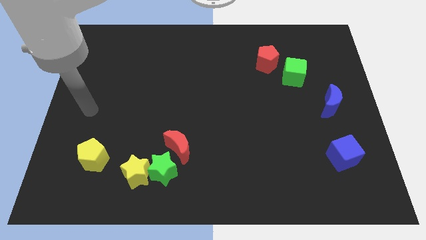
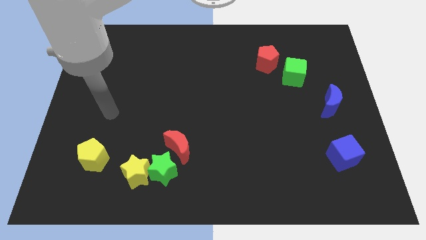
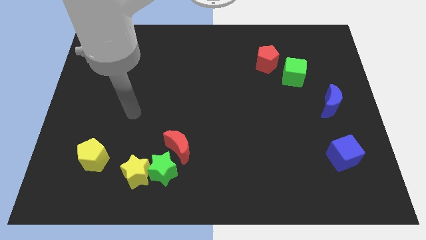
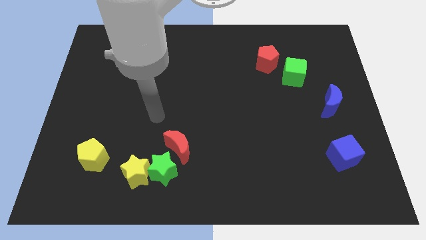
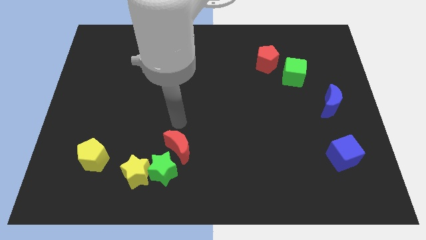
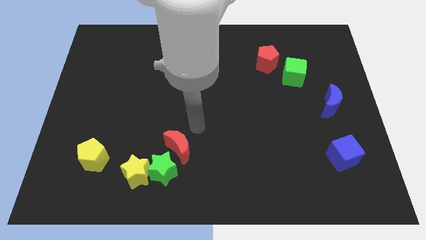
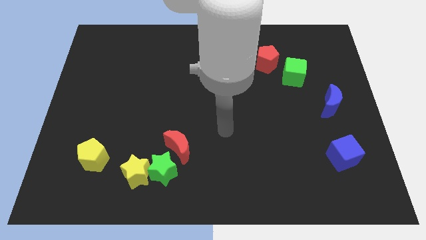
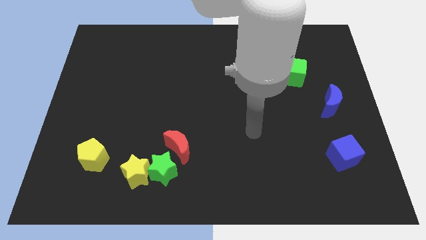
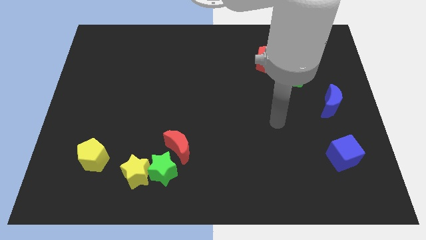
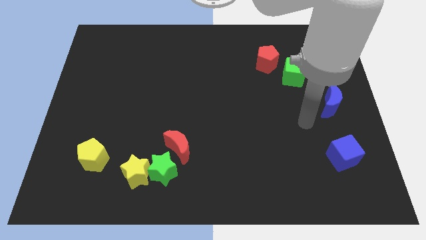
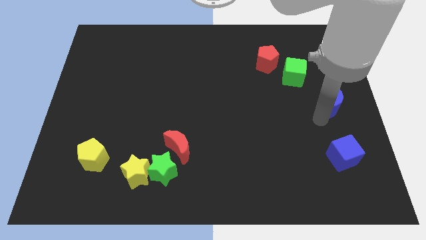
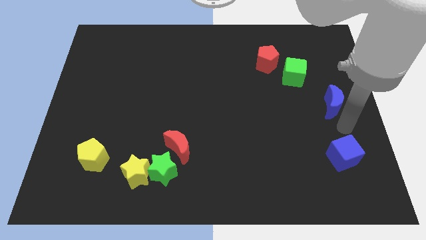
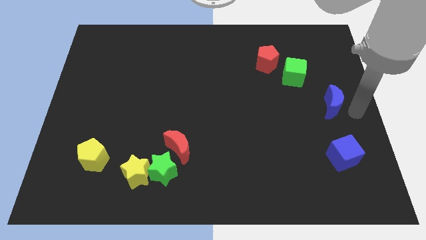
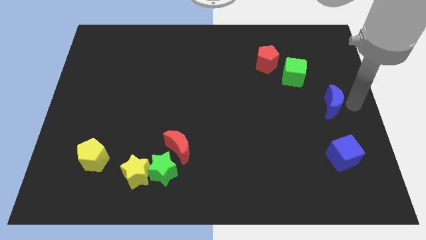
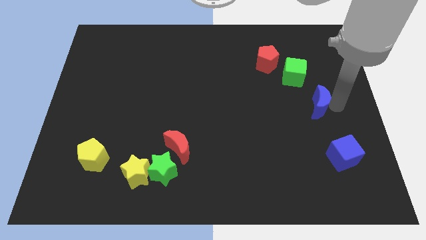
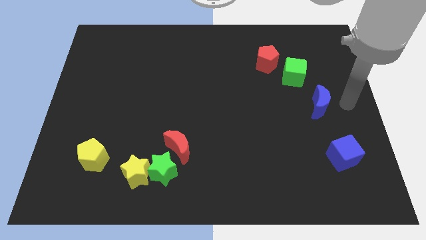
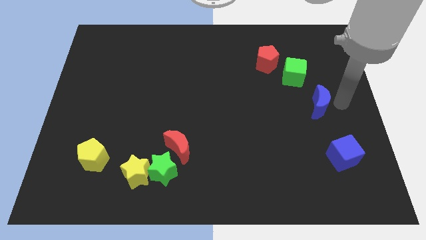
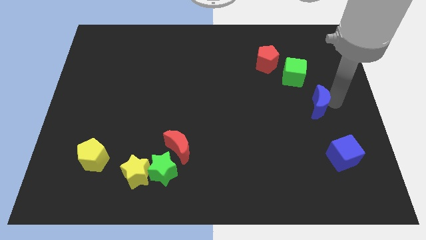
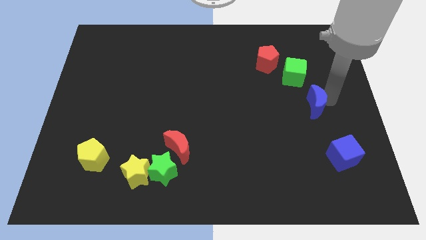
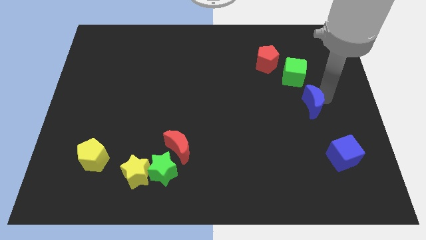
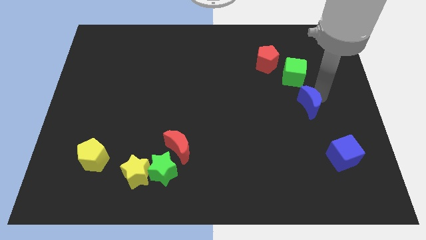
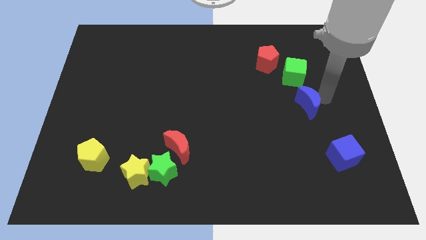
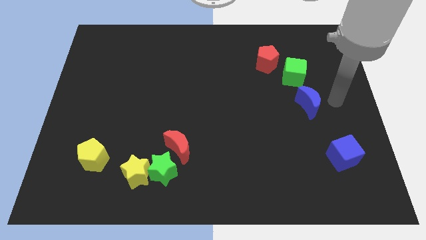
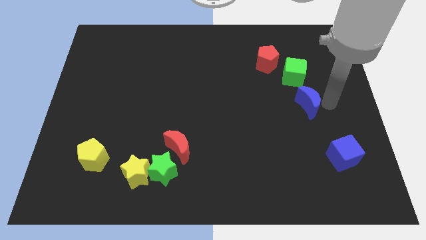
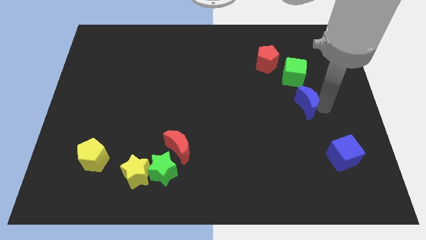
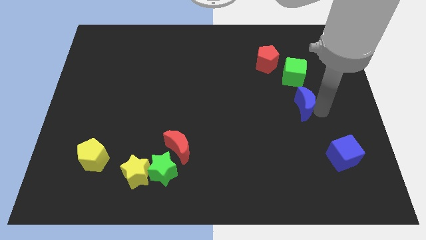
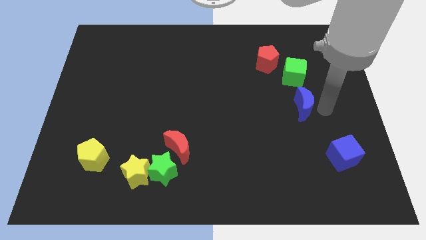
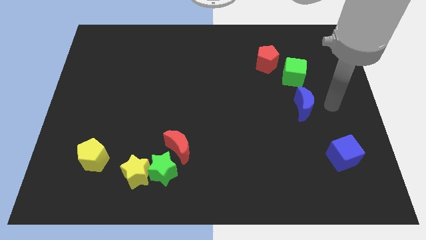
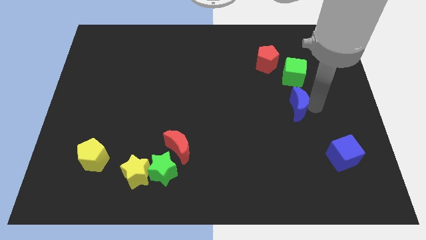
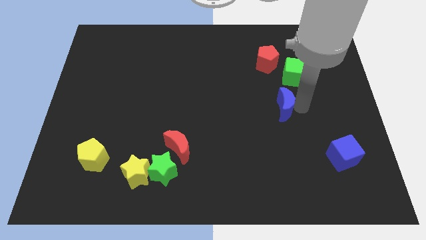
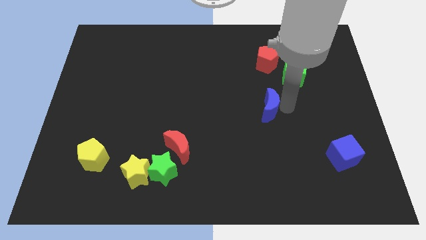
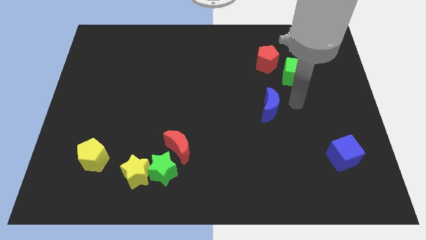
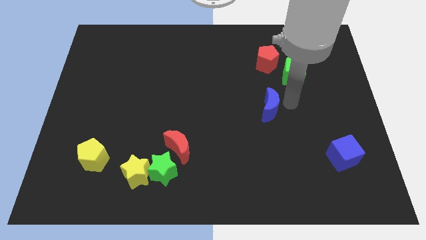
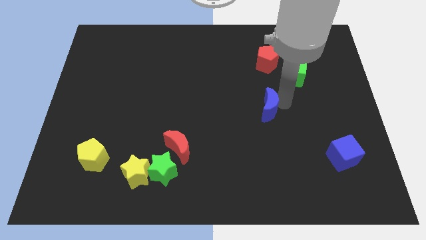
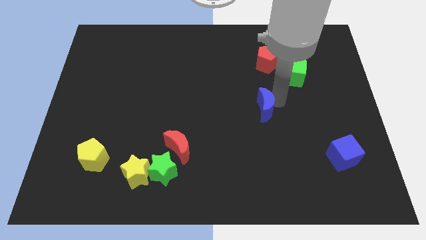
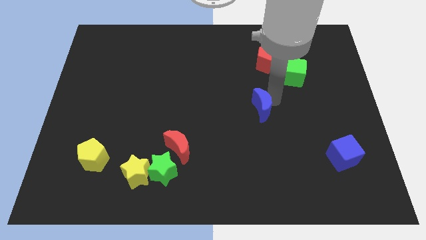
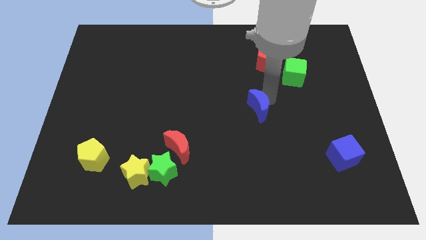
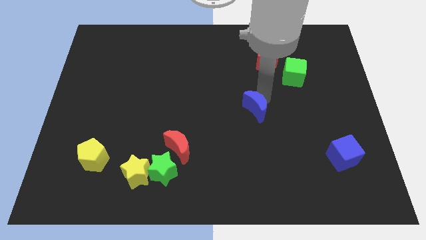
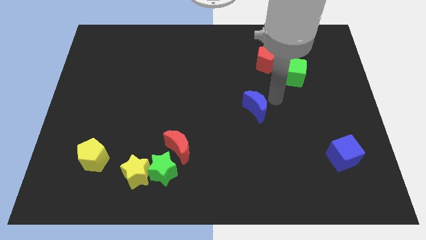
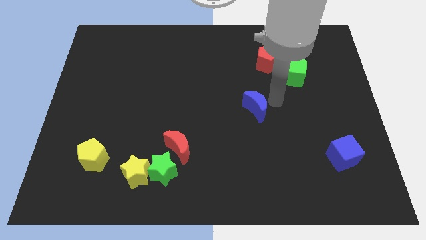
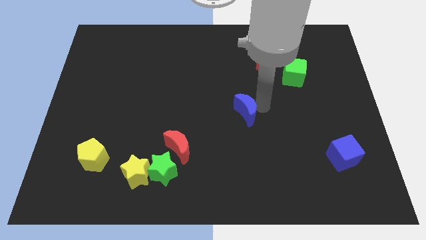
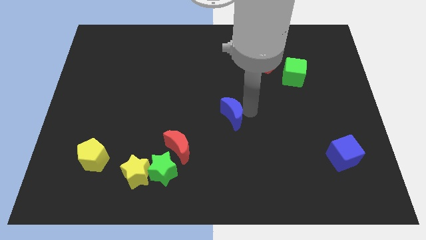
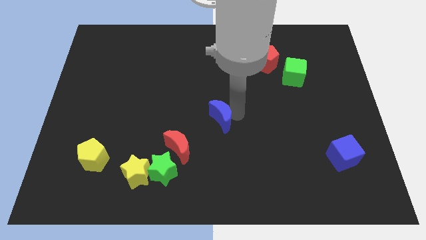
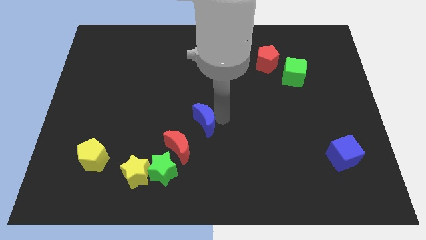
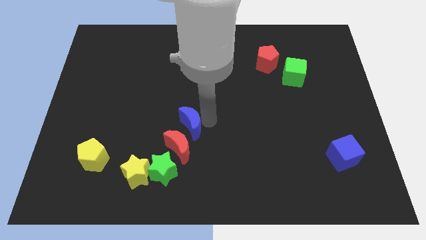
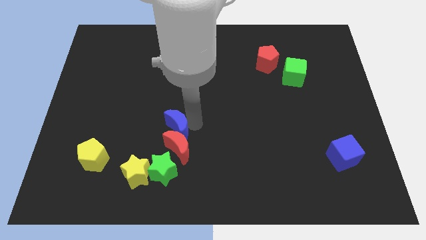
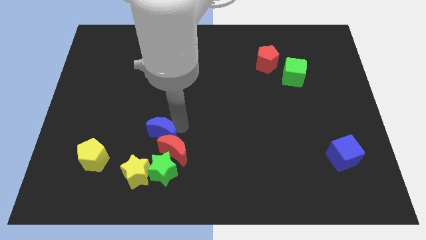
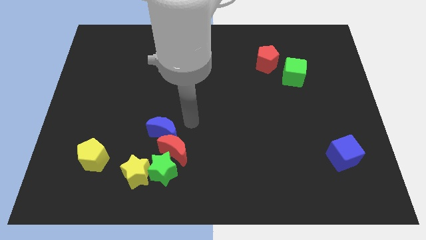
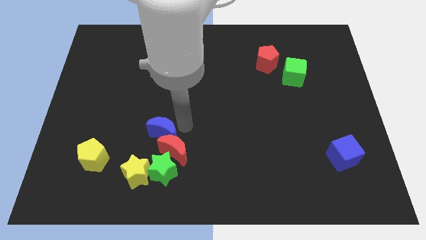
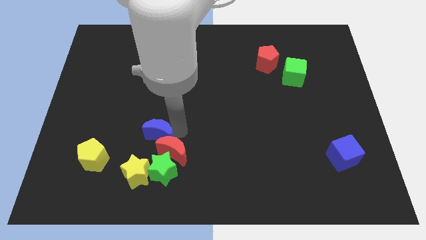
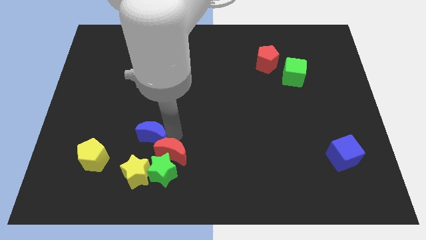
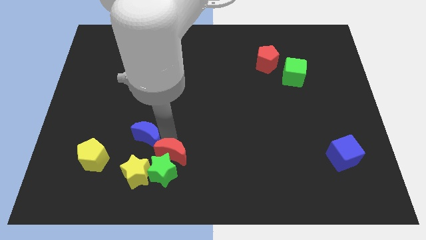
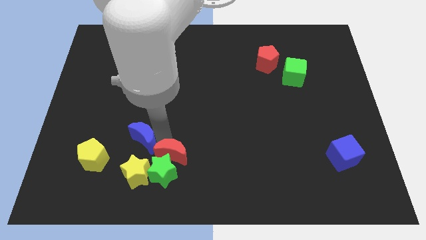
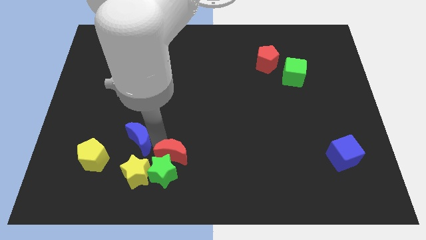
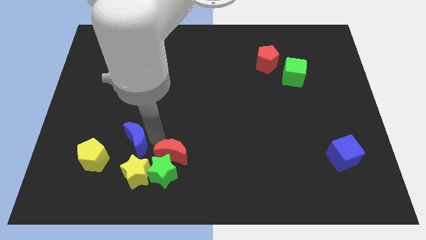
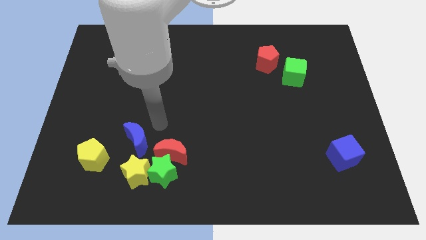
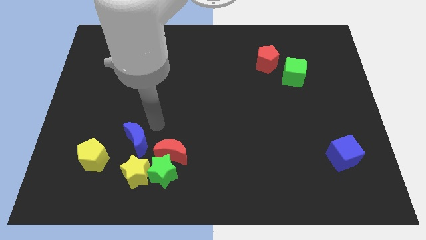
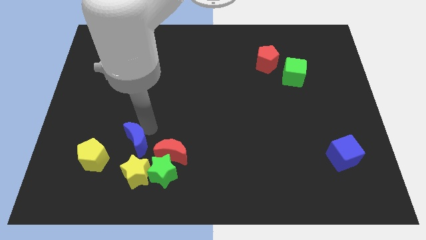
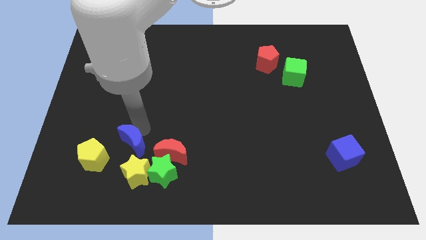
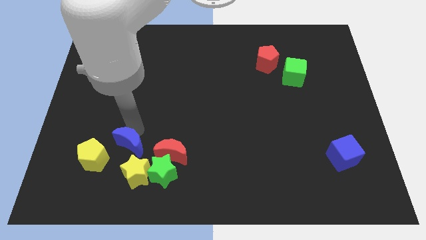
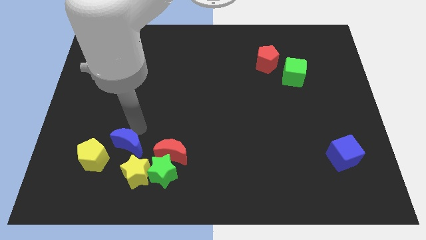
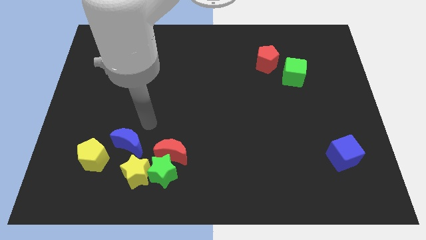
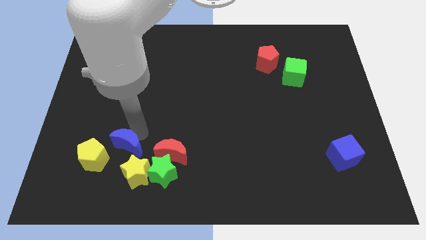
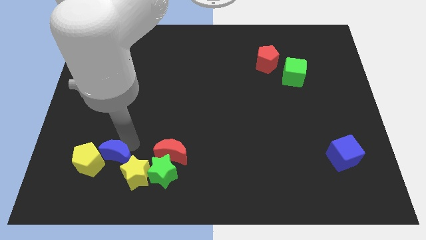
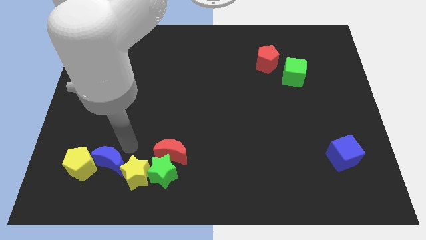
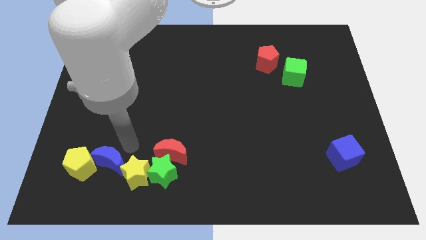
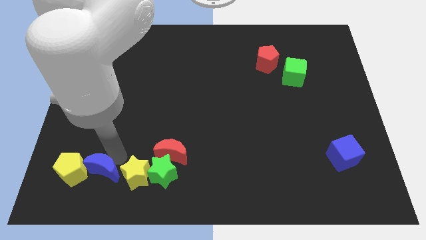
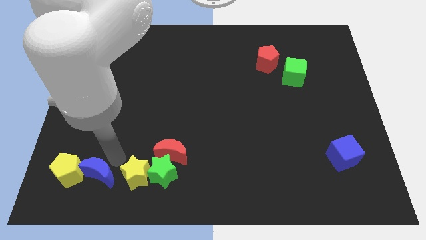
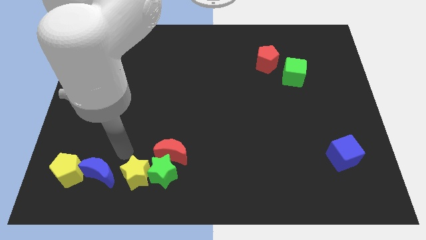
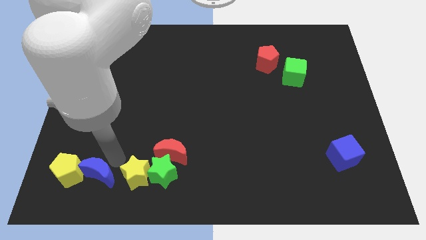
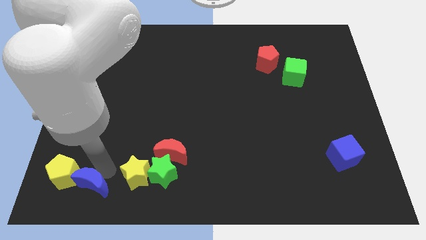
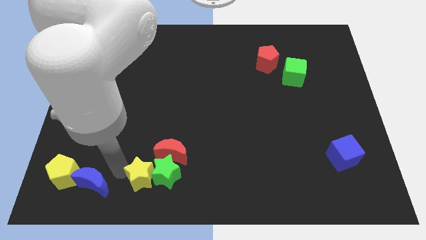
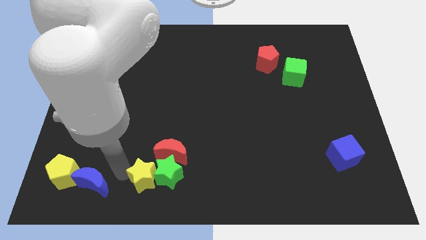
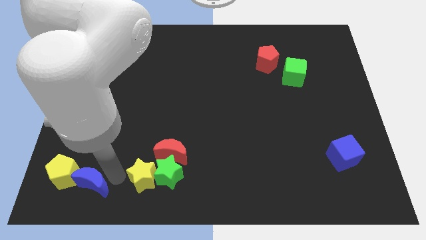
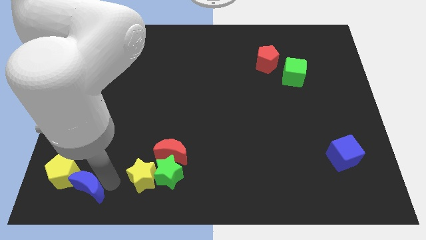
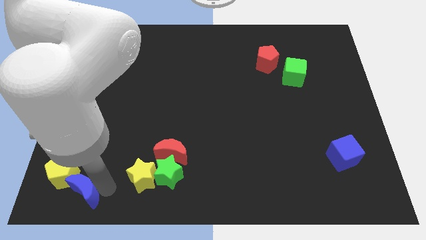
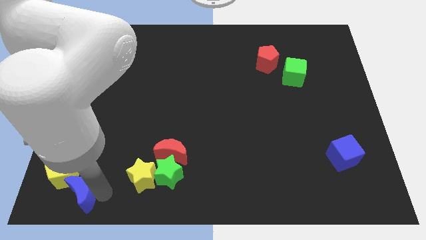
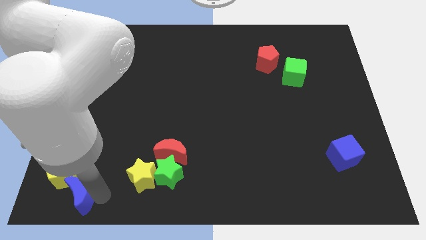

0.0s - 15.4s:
push the blue moon to the bottom left of the board
